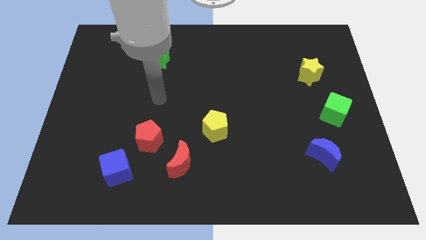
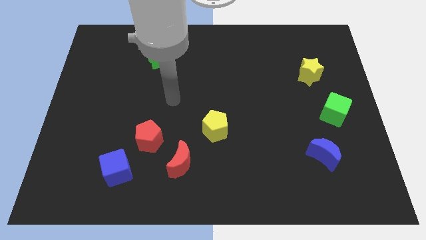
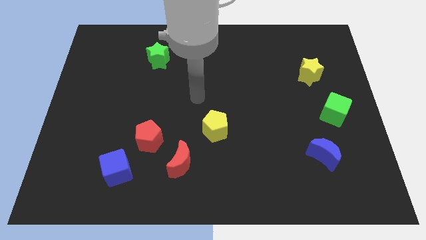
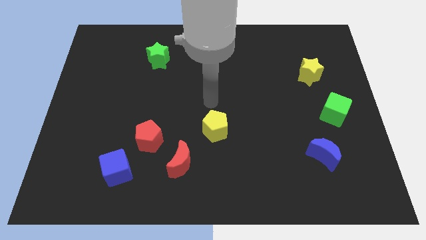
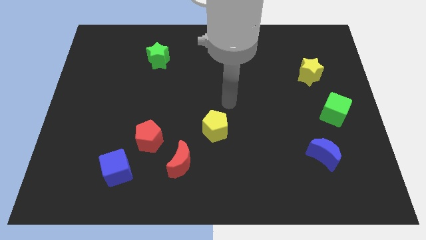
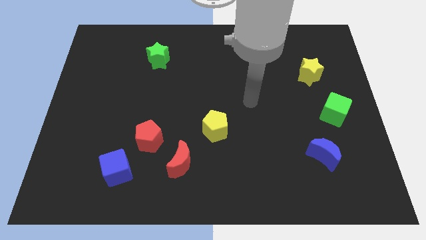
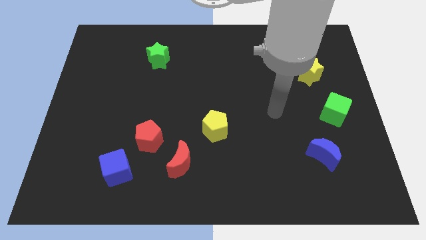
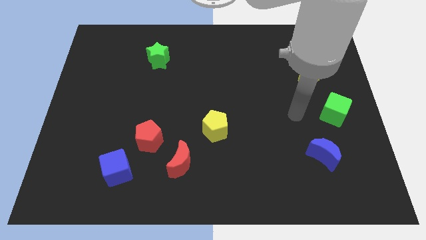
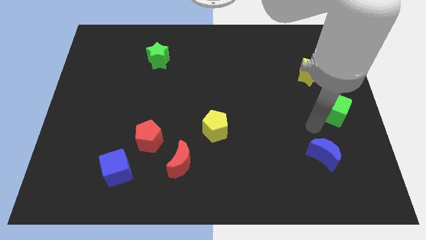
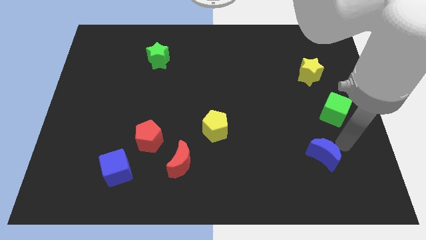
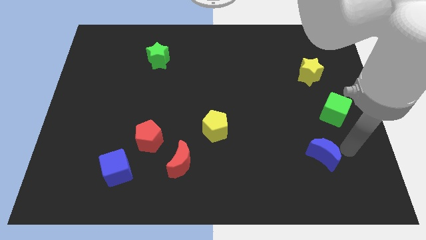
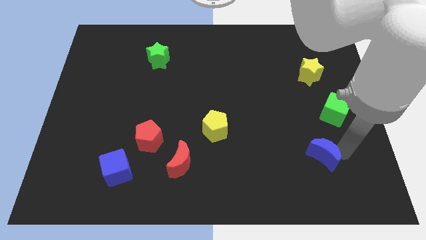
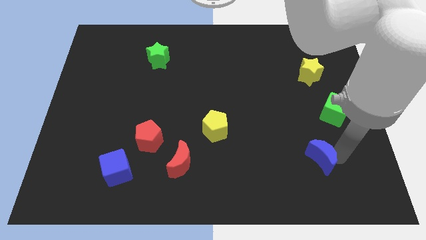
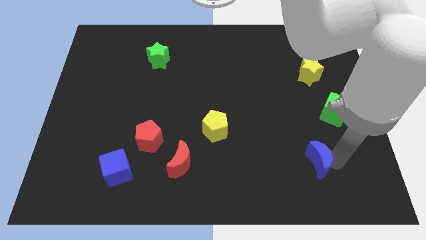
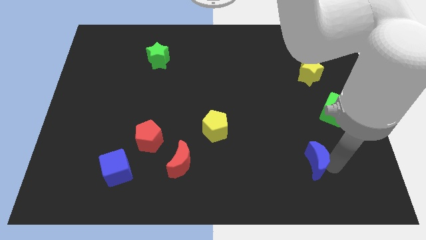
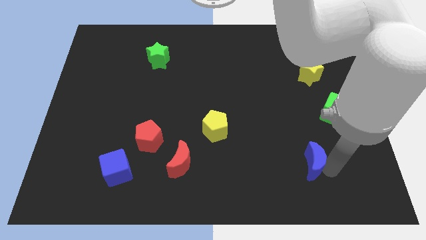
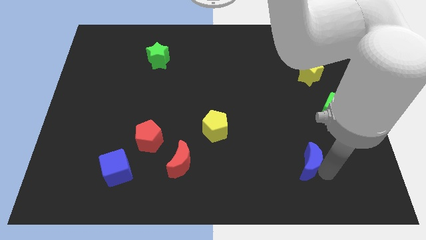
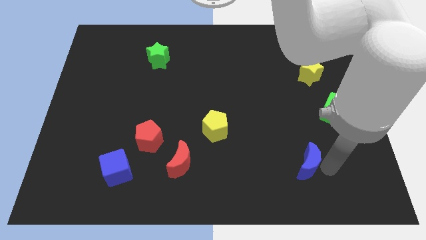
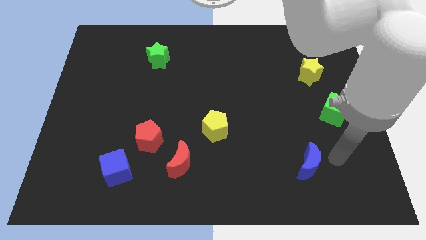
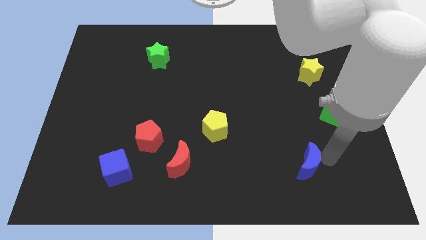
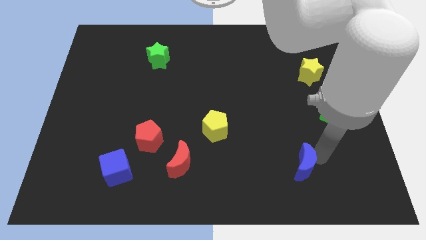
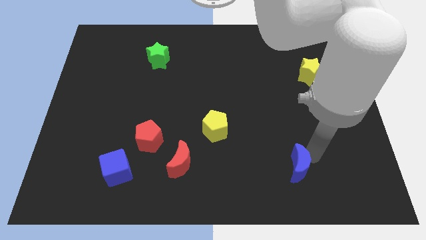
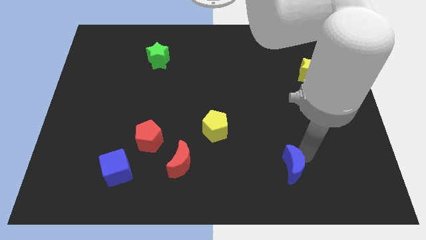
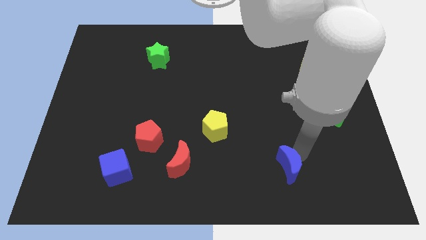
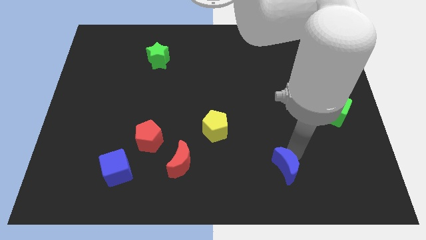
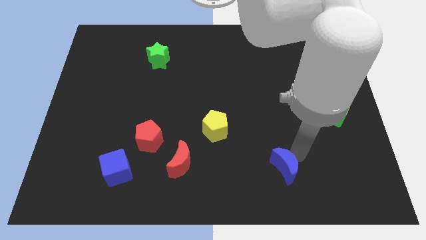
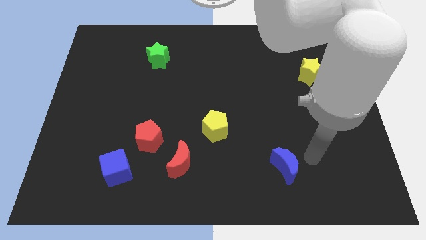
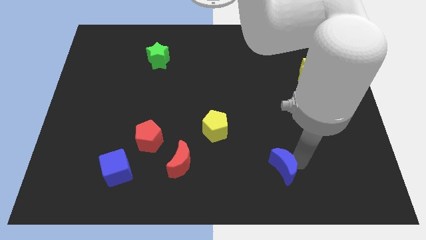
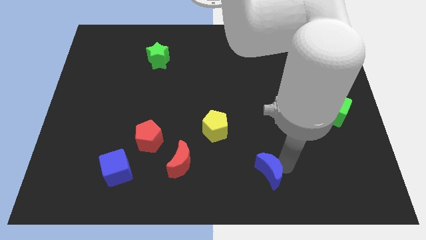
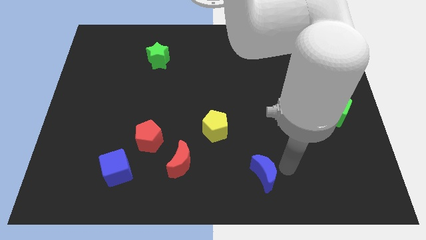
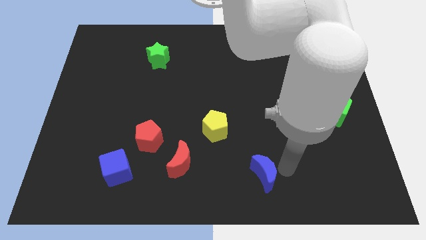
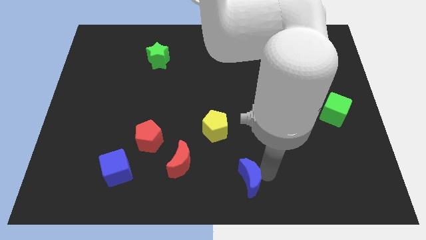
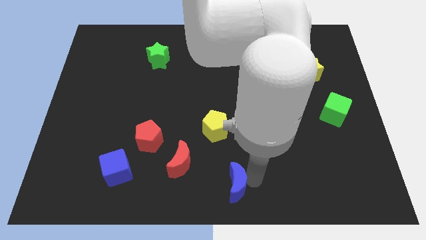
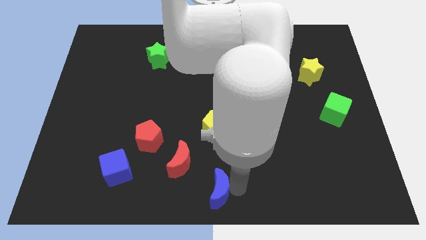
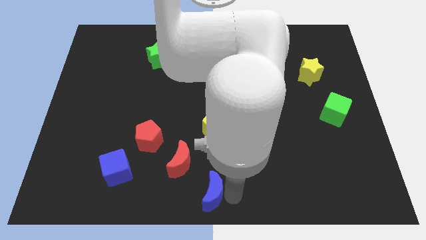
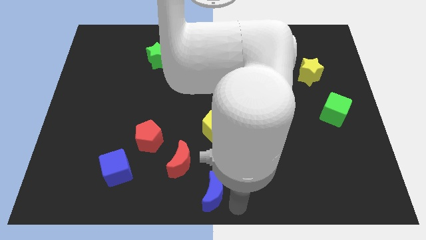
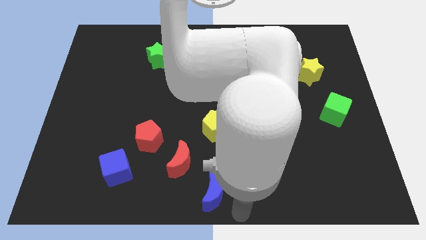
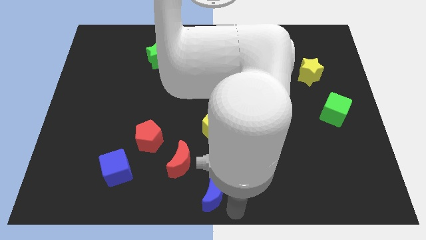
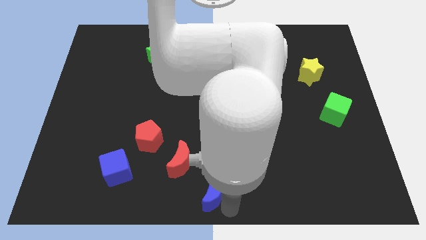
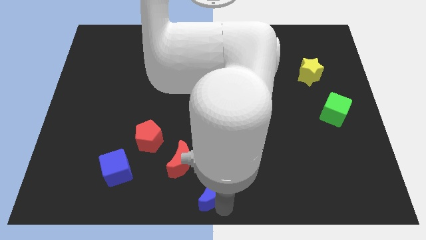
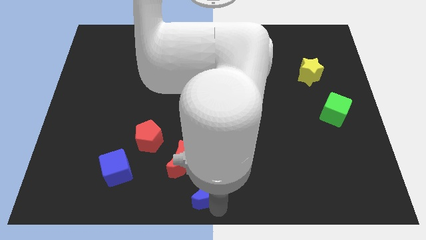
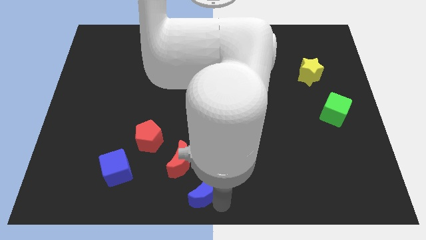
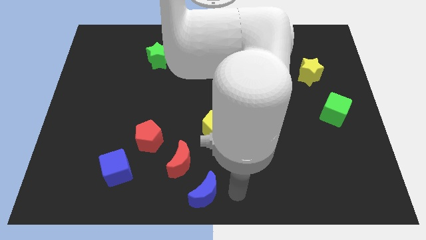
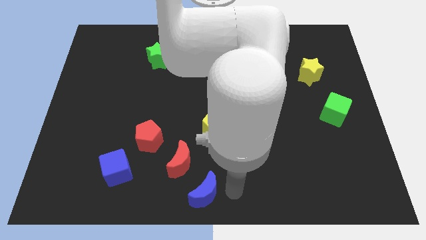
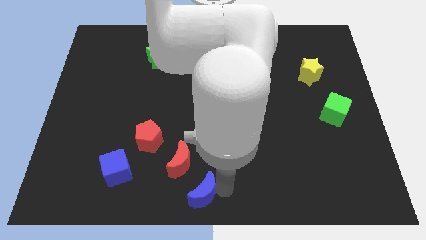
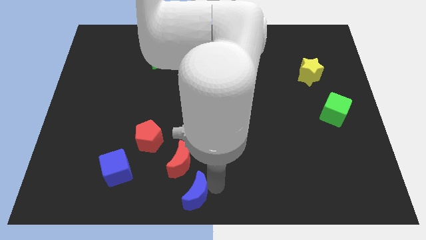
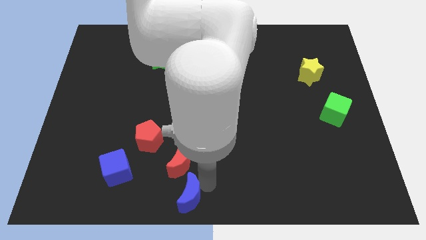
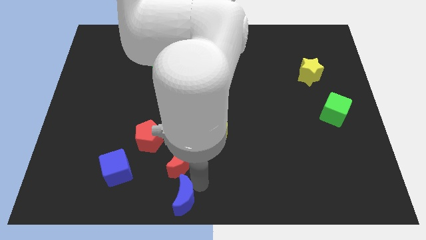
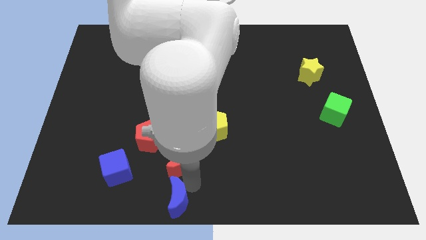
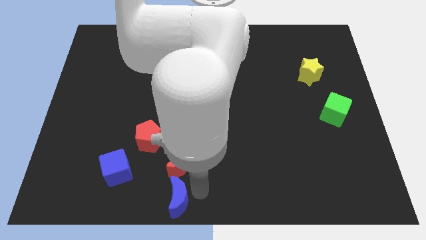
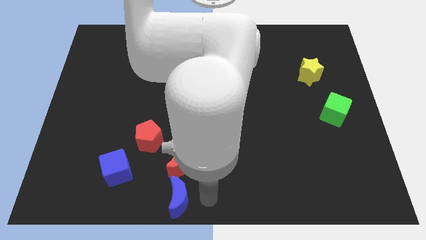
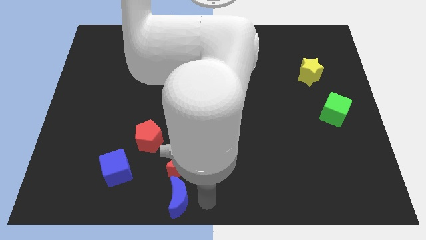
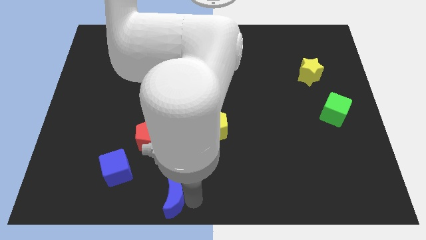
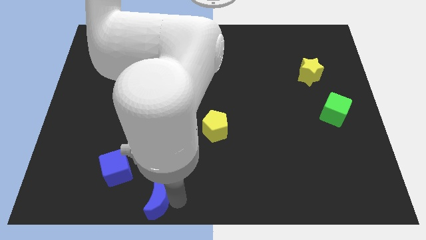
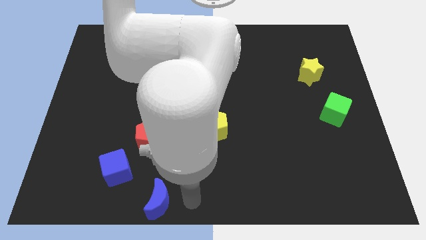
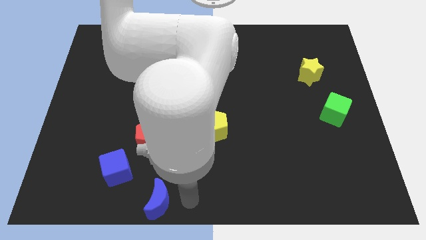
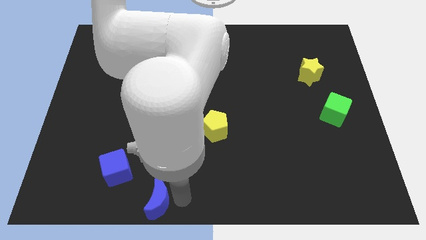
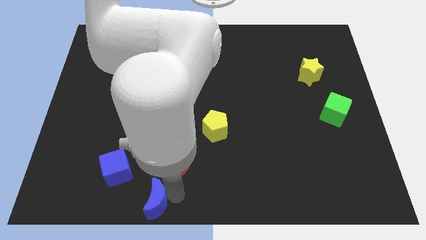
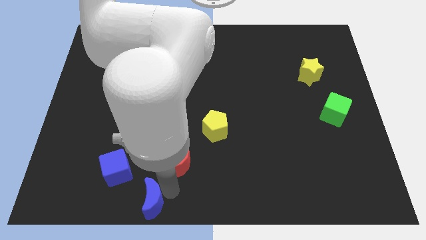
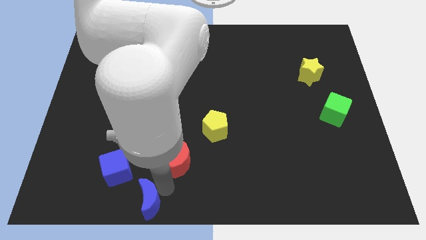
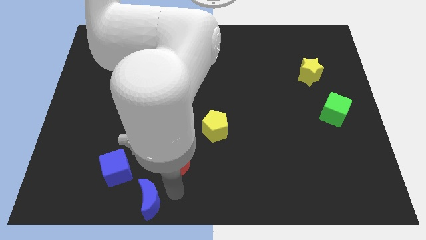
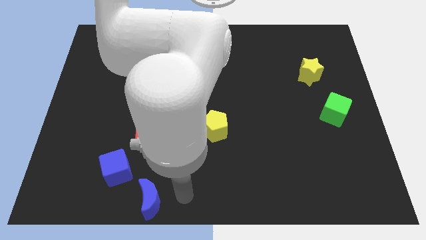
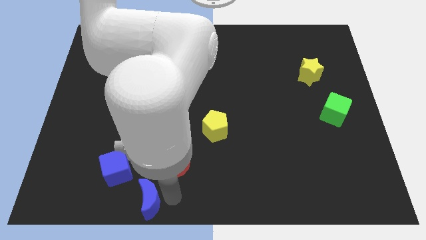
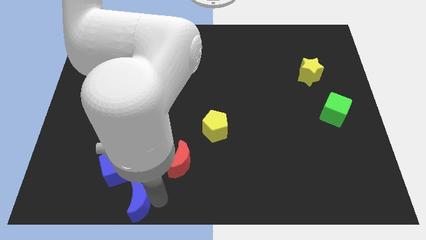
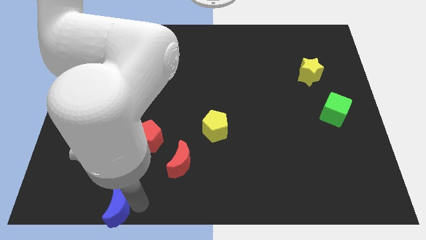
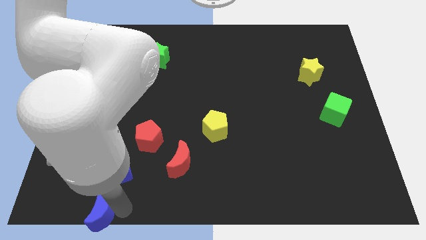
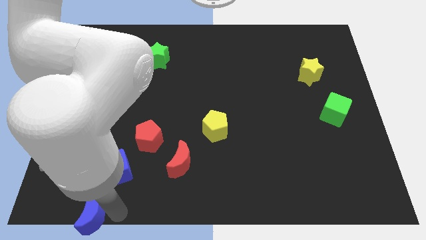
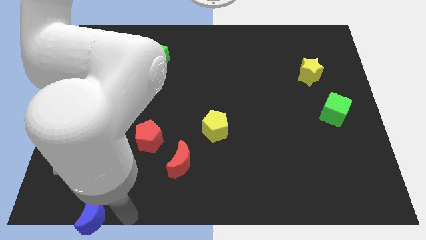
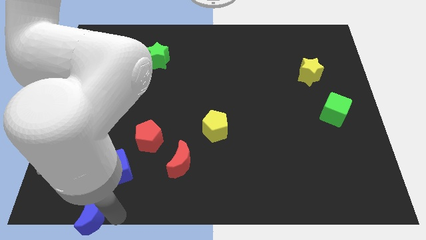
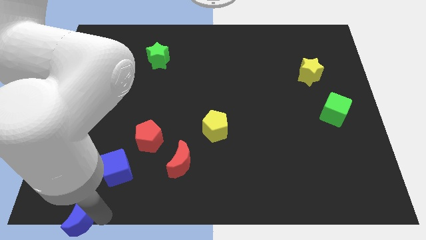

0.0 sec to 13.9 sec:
put the blue moon to the lower left corner

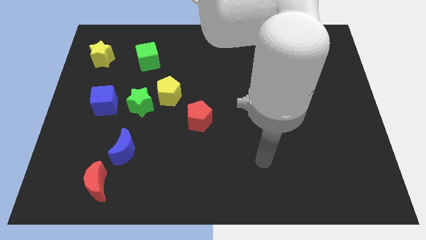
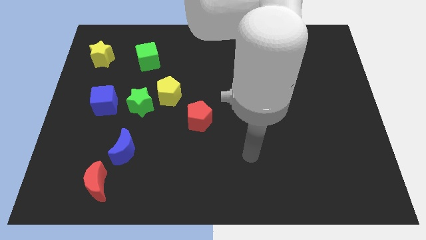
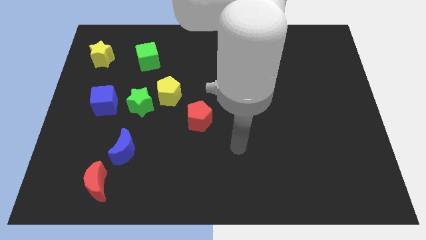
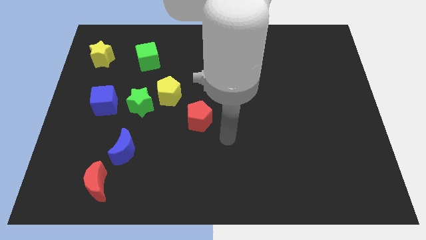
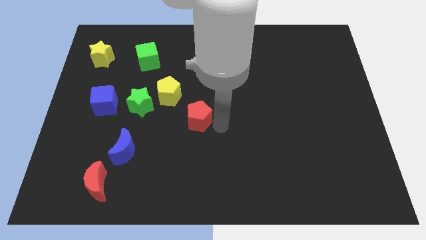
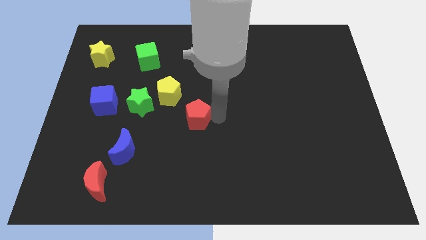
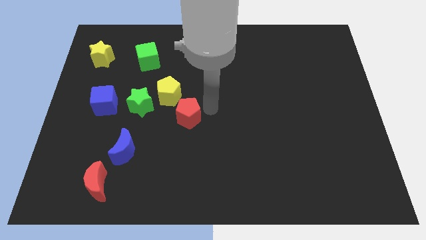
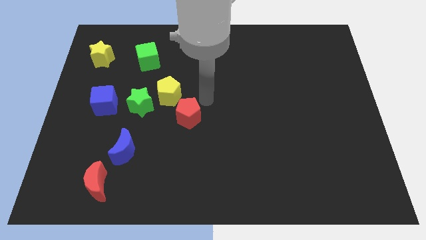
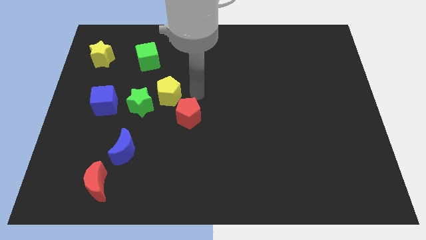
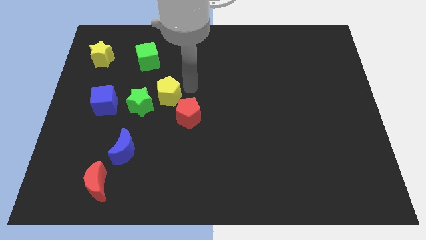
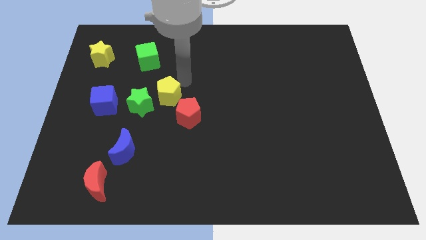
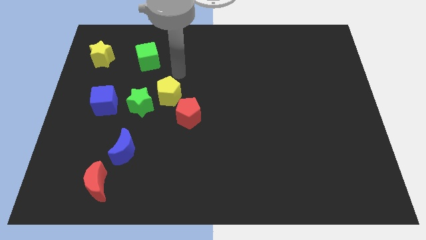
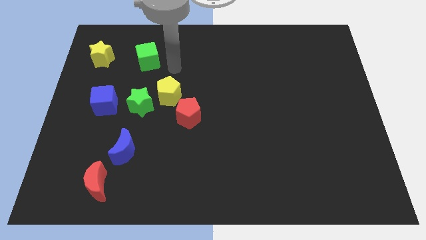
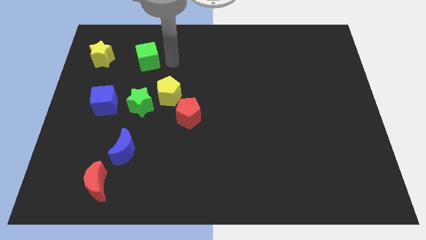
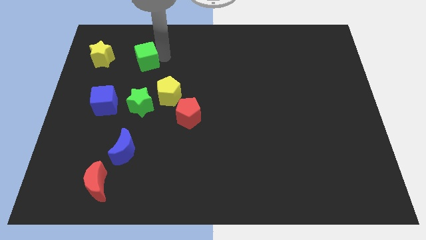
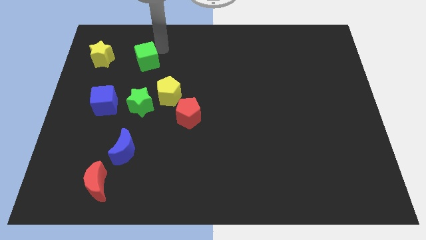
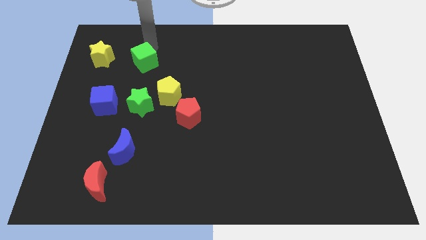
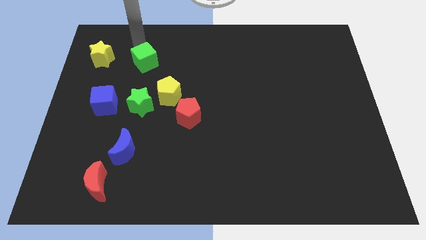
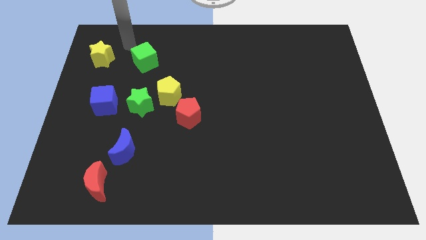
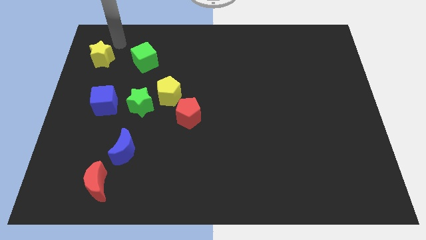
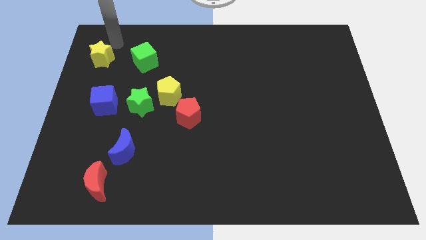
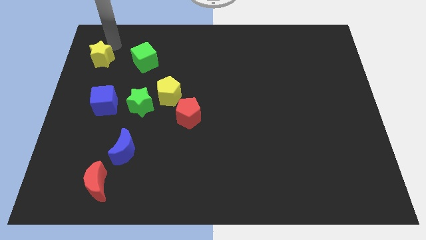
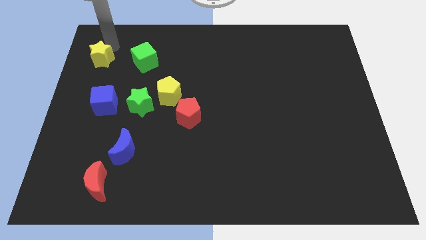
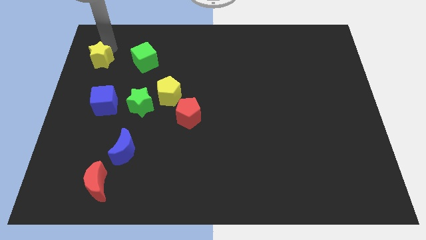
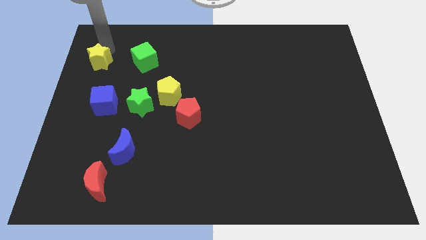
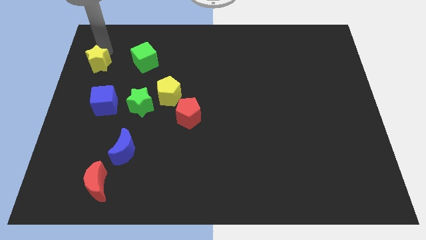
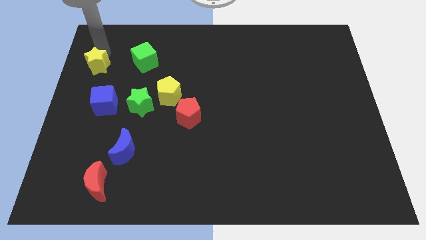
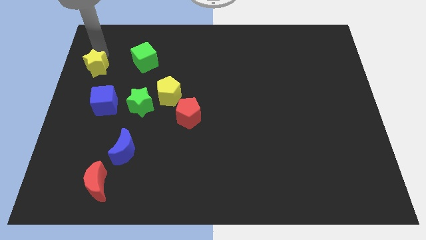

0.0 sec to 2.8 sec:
push the yellow star to the center left
